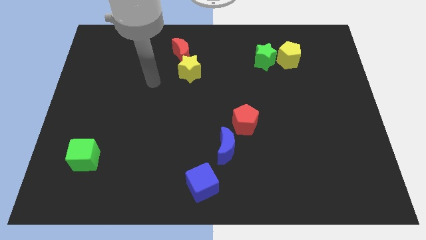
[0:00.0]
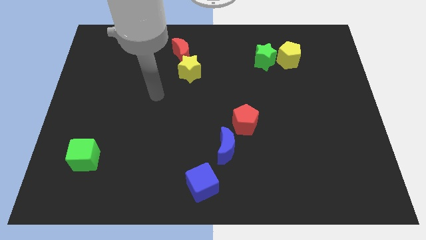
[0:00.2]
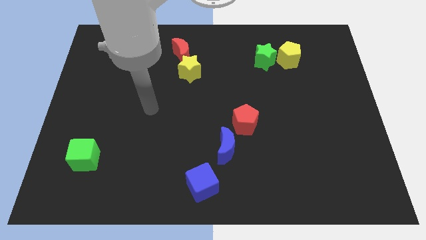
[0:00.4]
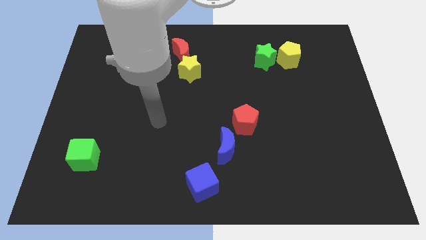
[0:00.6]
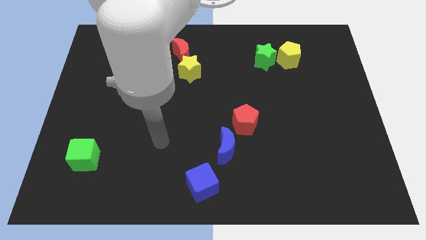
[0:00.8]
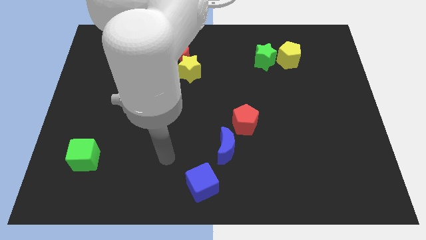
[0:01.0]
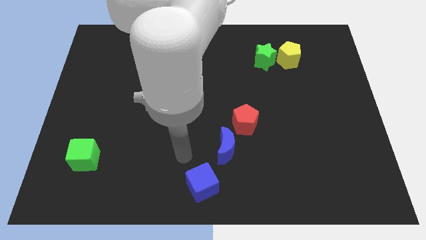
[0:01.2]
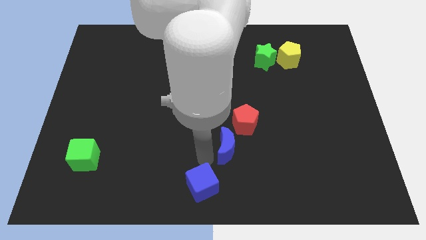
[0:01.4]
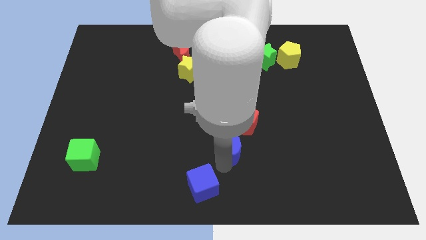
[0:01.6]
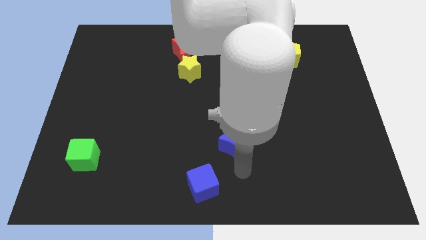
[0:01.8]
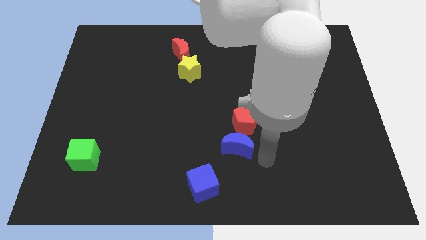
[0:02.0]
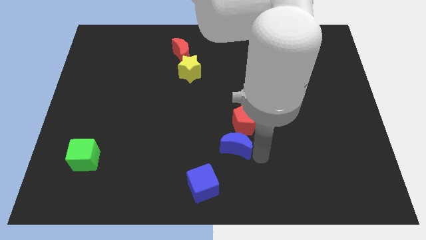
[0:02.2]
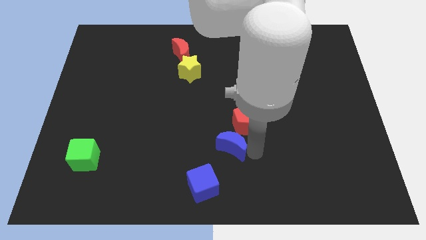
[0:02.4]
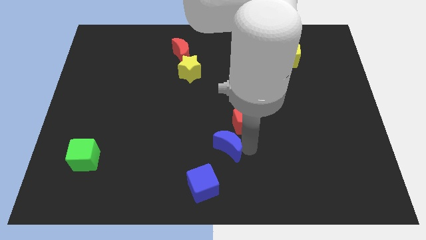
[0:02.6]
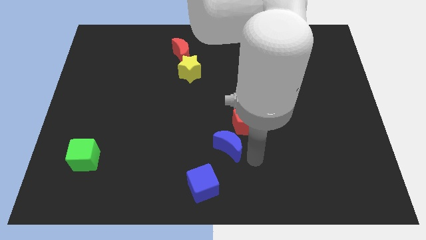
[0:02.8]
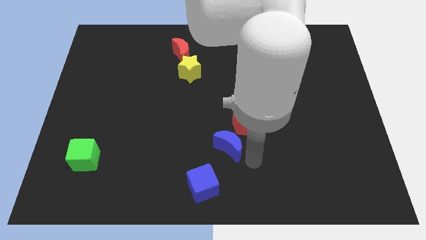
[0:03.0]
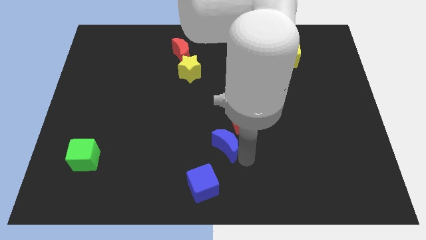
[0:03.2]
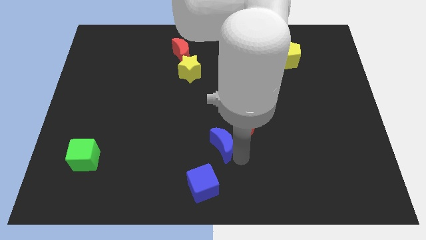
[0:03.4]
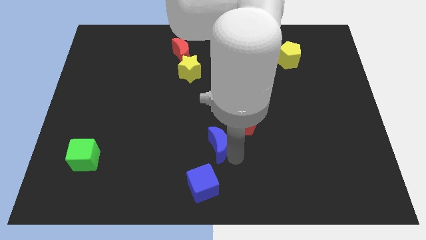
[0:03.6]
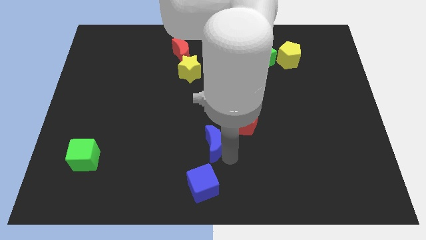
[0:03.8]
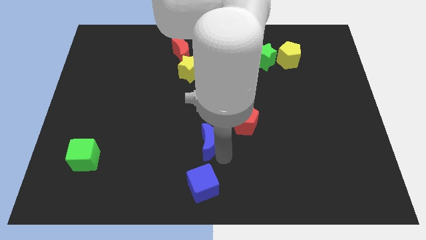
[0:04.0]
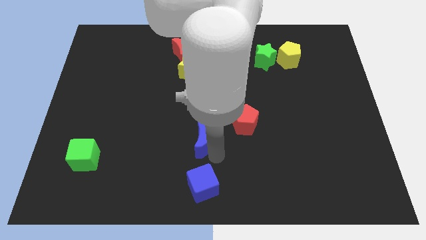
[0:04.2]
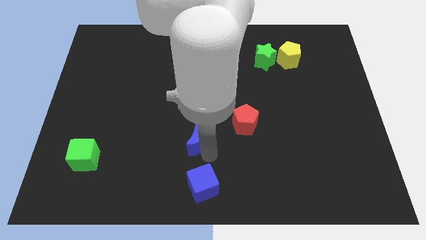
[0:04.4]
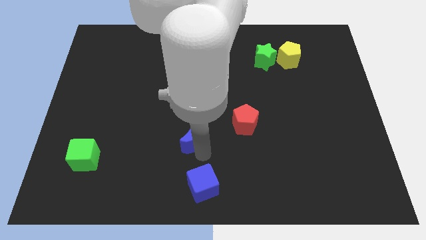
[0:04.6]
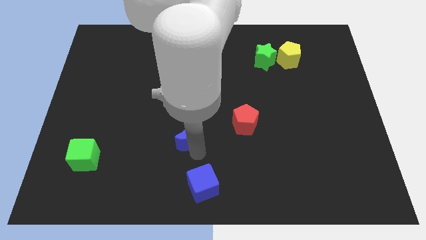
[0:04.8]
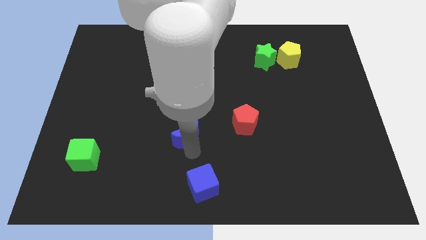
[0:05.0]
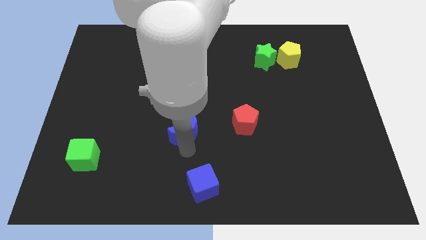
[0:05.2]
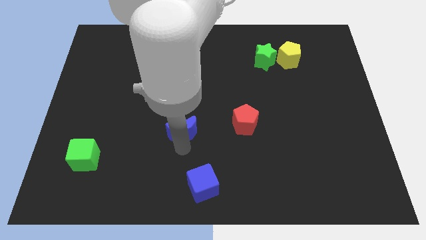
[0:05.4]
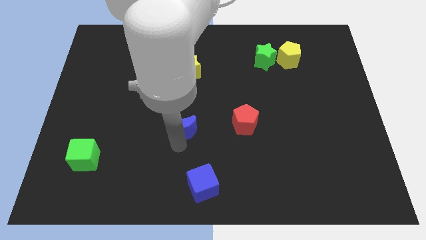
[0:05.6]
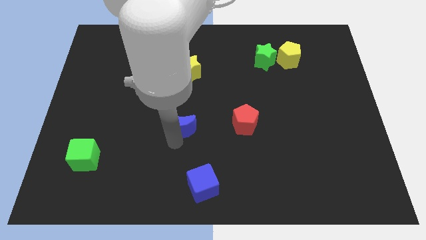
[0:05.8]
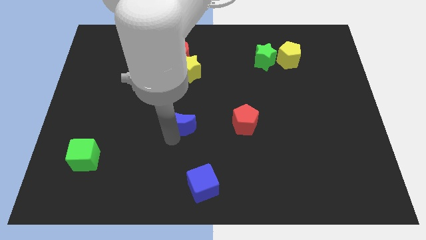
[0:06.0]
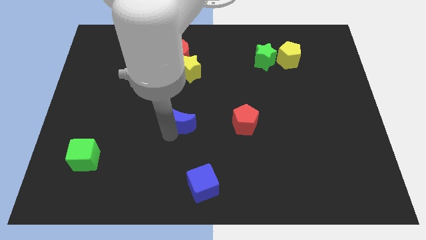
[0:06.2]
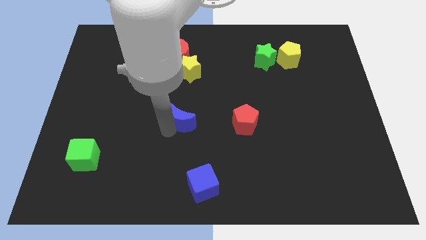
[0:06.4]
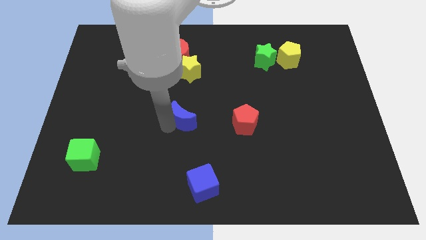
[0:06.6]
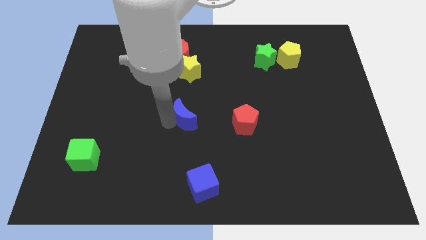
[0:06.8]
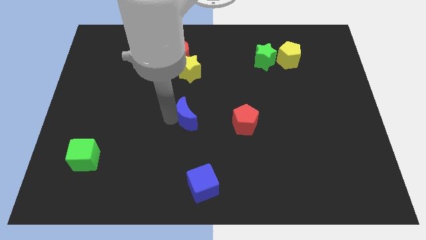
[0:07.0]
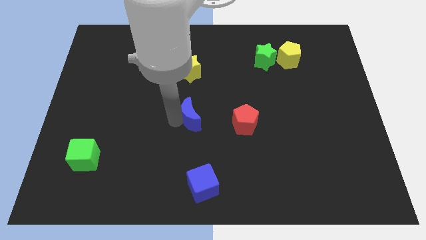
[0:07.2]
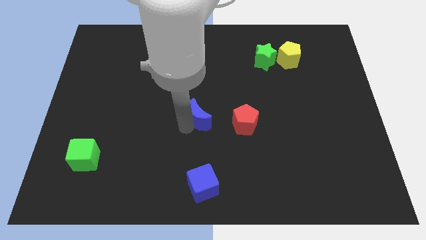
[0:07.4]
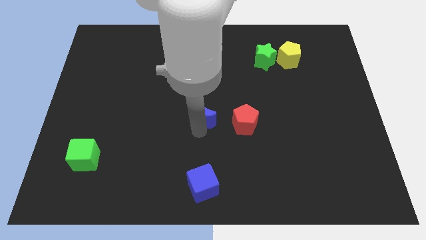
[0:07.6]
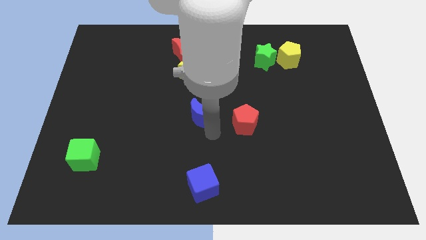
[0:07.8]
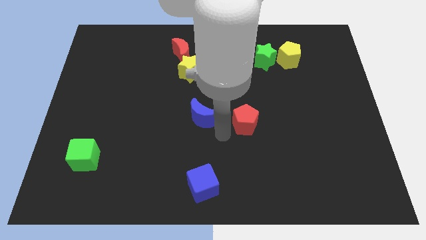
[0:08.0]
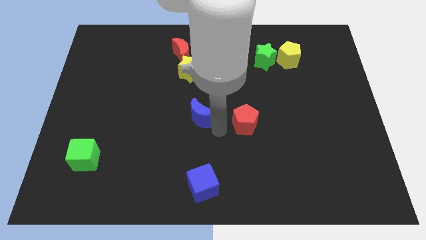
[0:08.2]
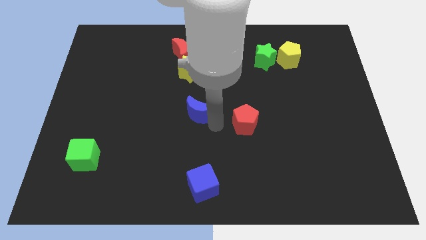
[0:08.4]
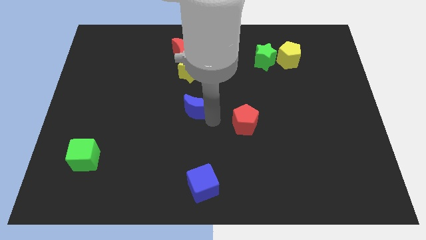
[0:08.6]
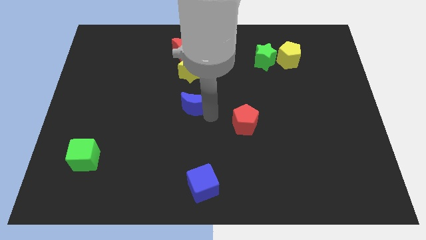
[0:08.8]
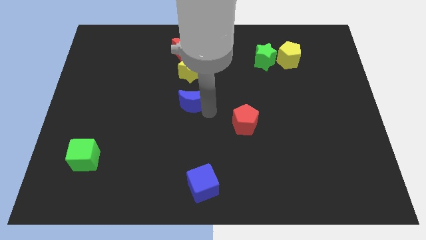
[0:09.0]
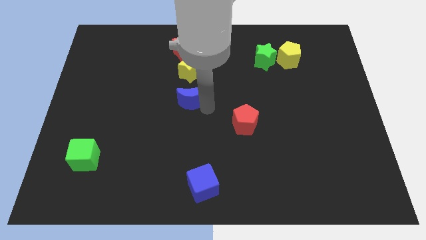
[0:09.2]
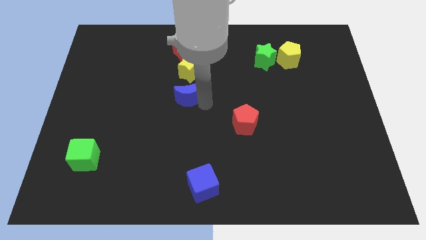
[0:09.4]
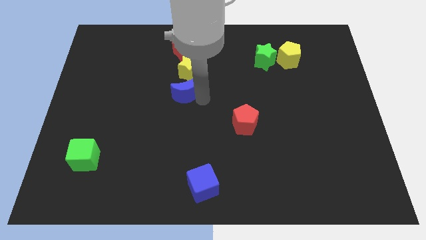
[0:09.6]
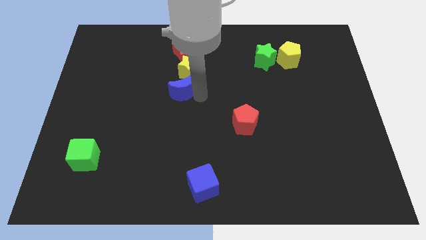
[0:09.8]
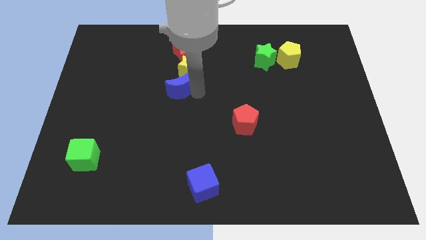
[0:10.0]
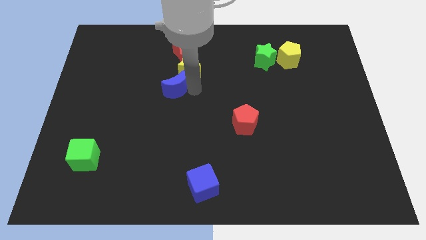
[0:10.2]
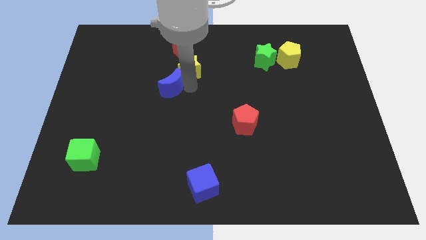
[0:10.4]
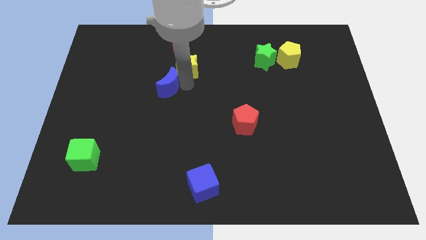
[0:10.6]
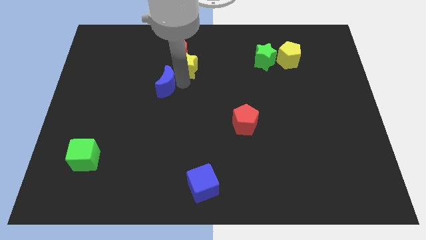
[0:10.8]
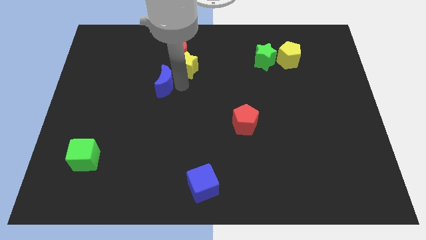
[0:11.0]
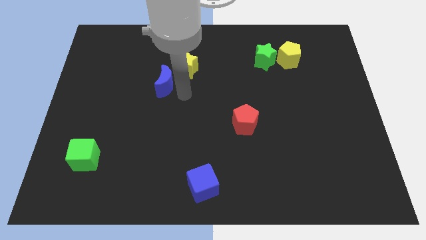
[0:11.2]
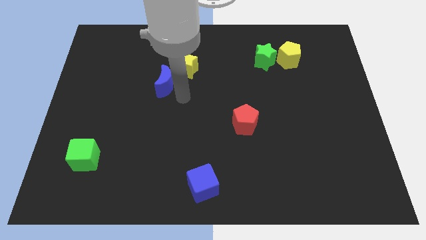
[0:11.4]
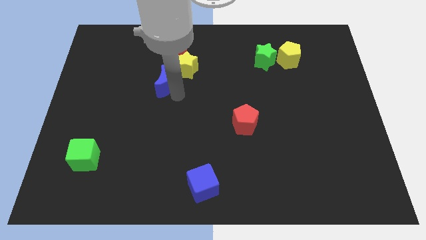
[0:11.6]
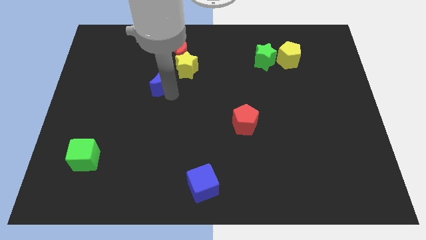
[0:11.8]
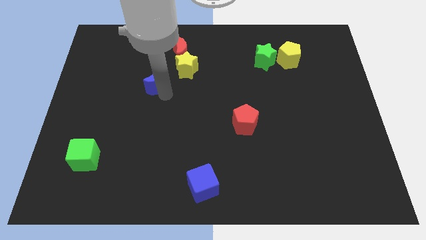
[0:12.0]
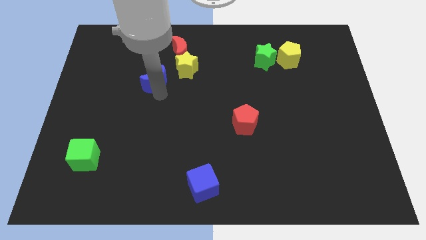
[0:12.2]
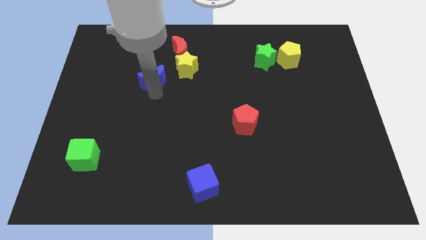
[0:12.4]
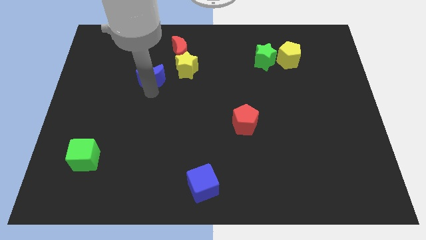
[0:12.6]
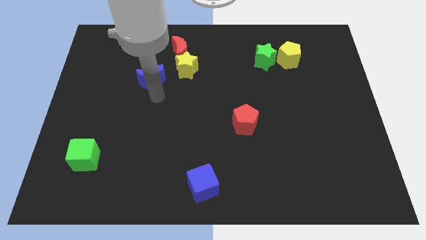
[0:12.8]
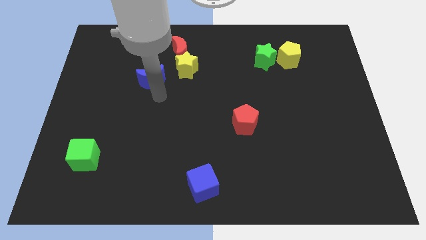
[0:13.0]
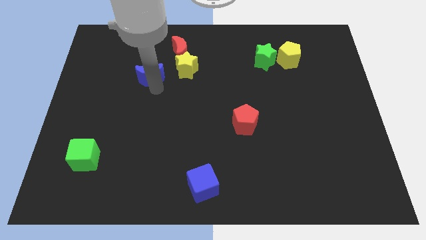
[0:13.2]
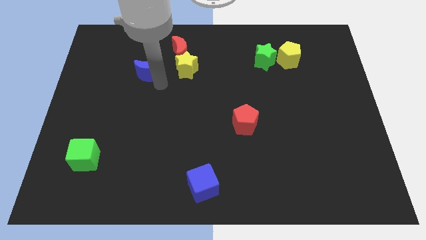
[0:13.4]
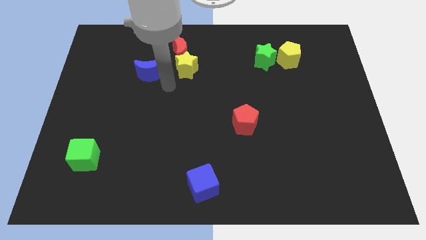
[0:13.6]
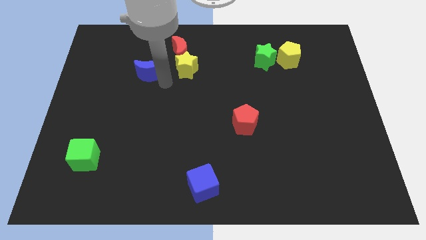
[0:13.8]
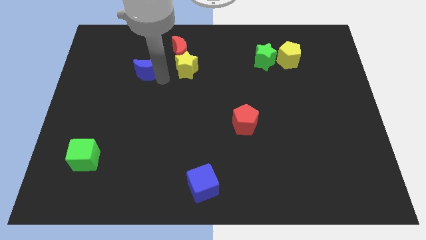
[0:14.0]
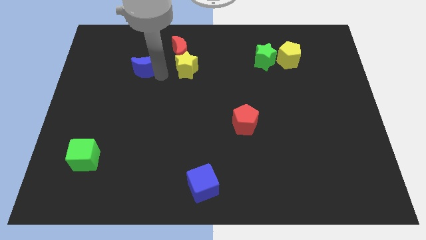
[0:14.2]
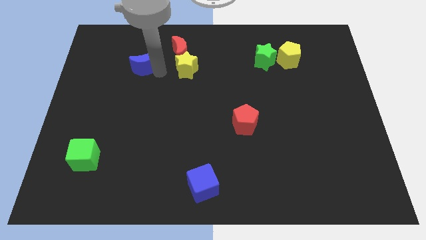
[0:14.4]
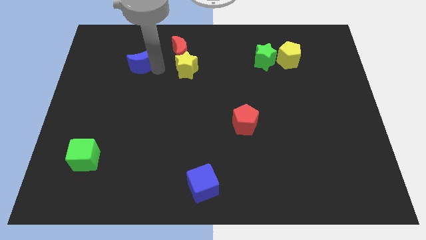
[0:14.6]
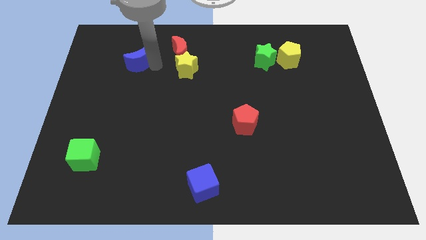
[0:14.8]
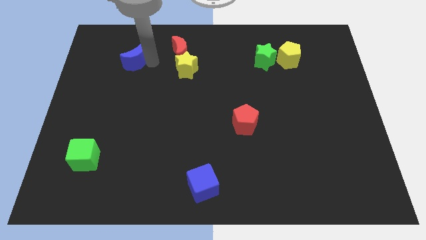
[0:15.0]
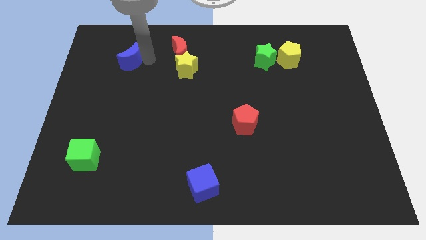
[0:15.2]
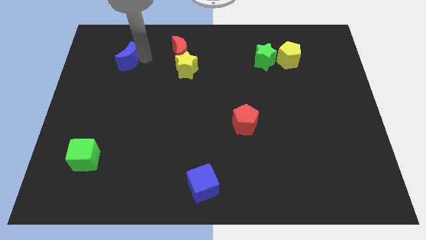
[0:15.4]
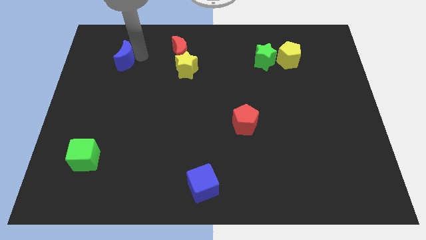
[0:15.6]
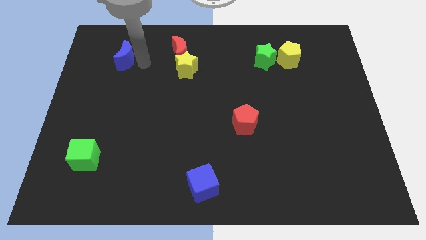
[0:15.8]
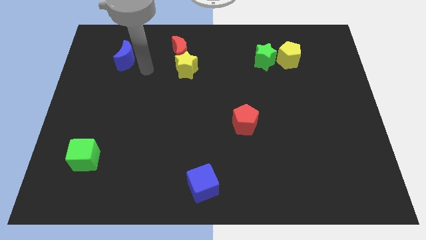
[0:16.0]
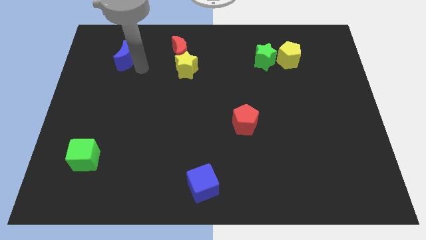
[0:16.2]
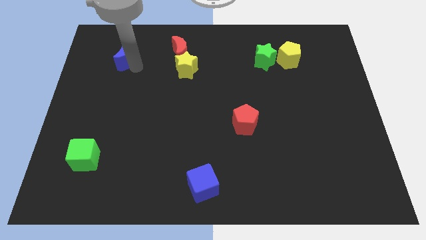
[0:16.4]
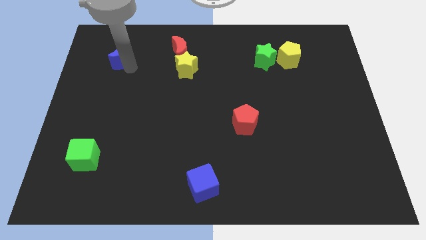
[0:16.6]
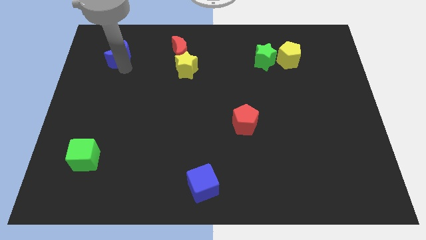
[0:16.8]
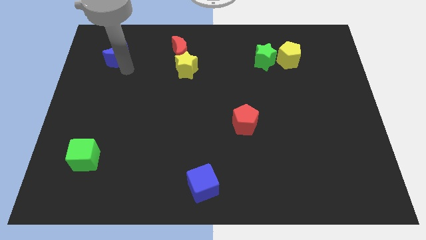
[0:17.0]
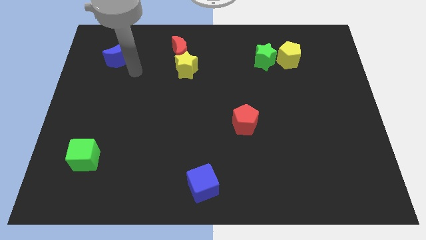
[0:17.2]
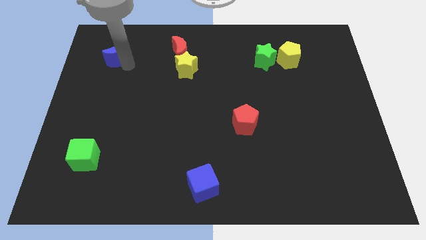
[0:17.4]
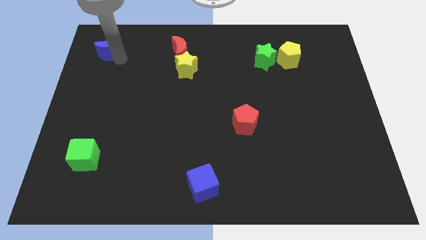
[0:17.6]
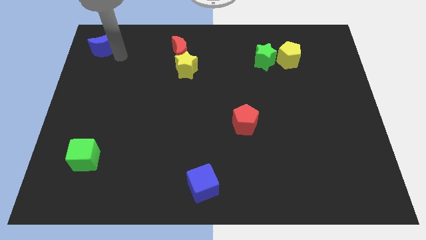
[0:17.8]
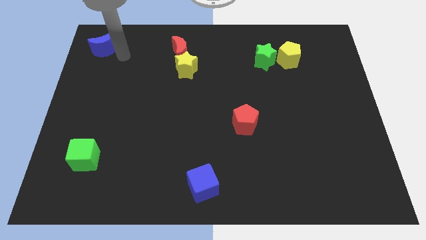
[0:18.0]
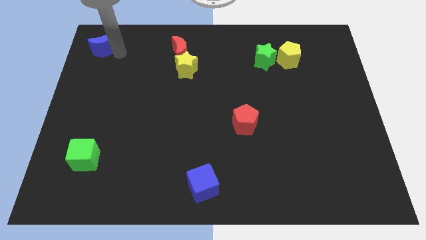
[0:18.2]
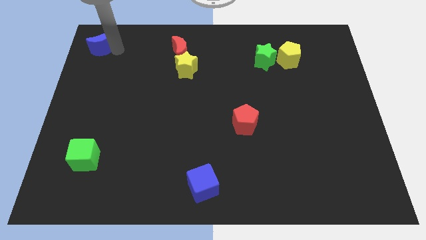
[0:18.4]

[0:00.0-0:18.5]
put the blue moon to the top left corner
